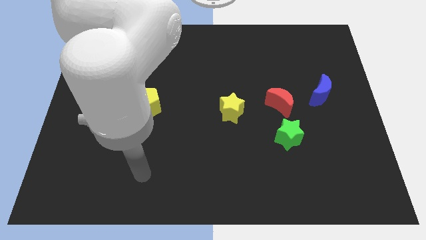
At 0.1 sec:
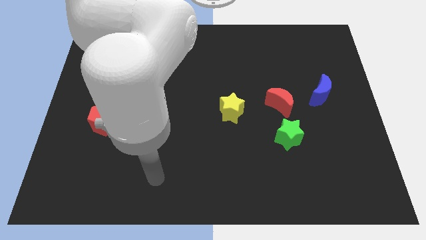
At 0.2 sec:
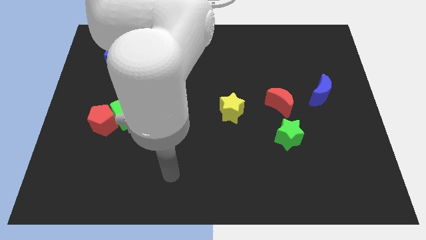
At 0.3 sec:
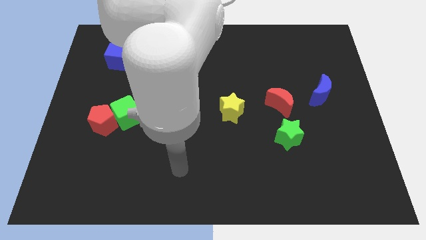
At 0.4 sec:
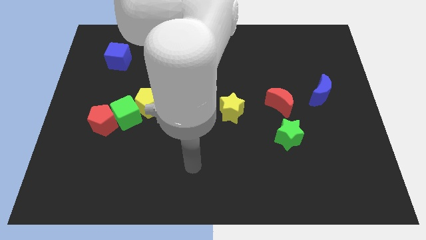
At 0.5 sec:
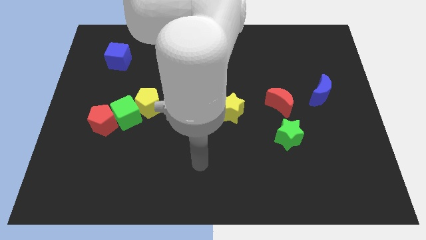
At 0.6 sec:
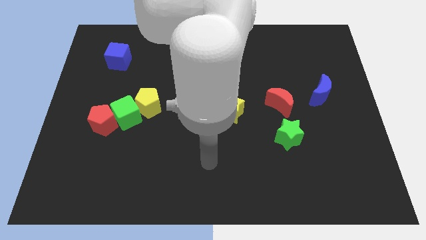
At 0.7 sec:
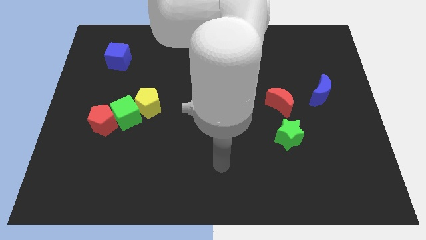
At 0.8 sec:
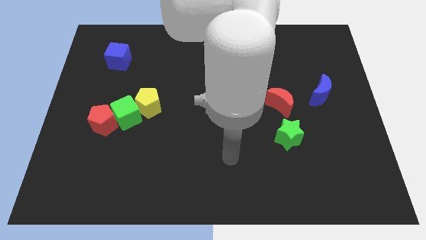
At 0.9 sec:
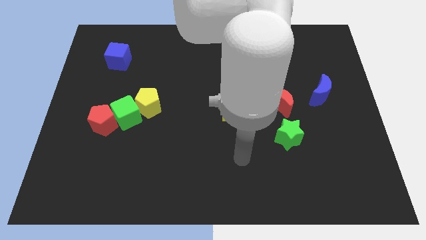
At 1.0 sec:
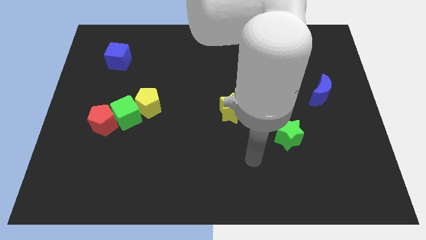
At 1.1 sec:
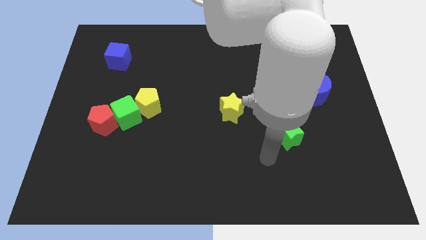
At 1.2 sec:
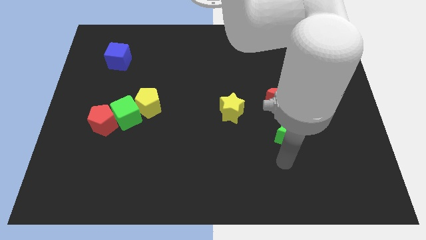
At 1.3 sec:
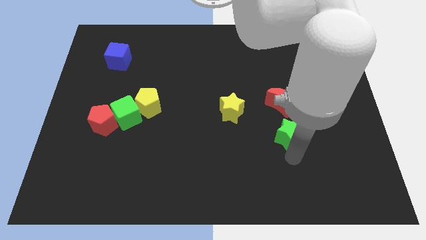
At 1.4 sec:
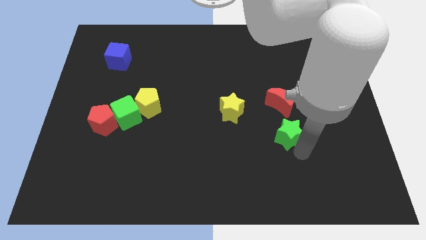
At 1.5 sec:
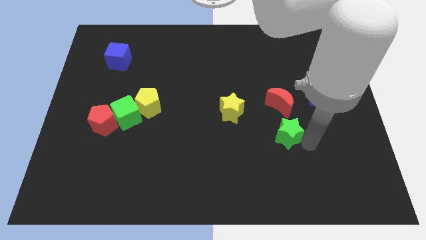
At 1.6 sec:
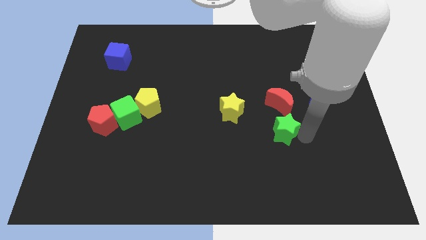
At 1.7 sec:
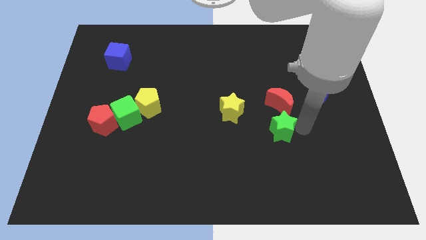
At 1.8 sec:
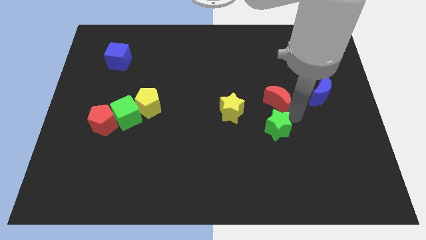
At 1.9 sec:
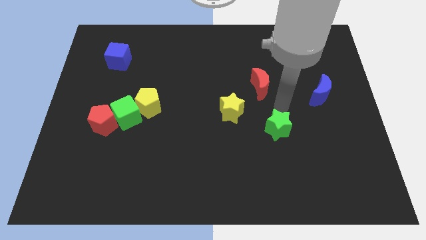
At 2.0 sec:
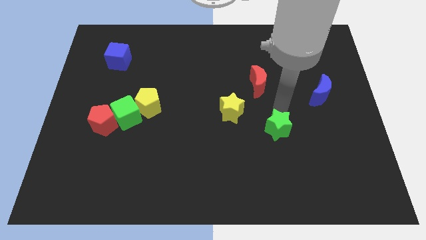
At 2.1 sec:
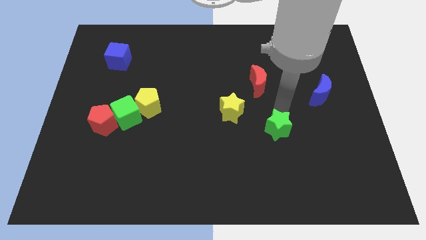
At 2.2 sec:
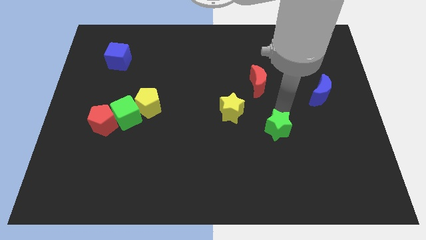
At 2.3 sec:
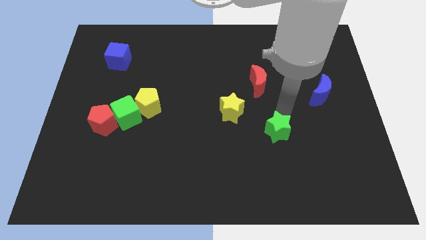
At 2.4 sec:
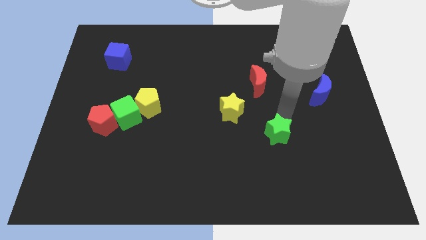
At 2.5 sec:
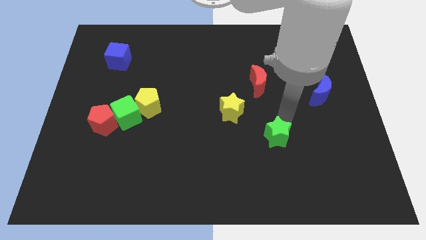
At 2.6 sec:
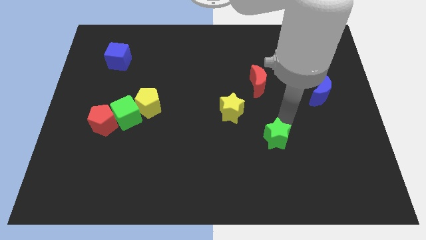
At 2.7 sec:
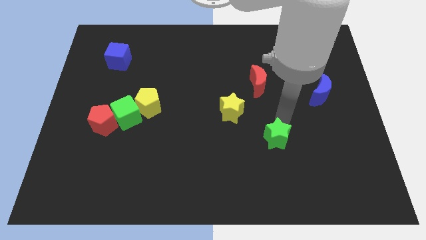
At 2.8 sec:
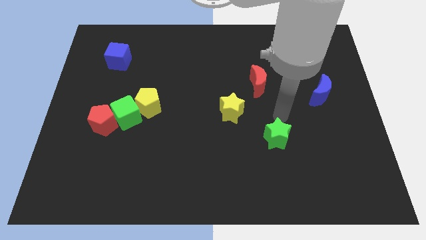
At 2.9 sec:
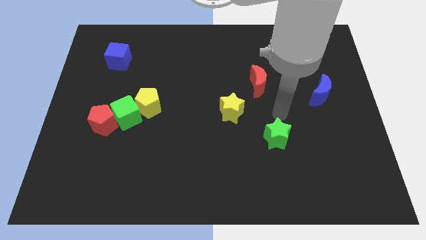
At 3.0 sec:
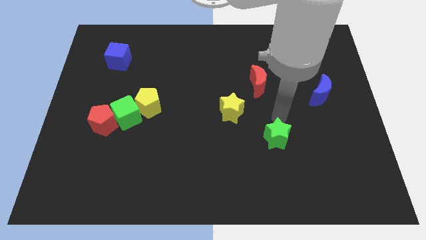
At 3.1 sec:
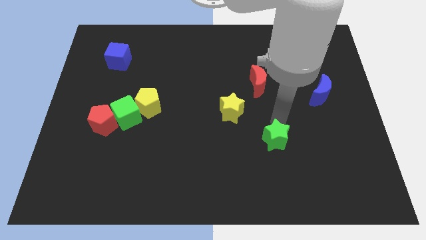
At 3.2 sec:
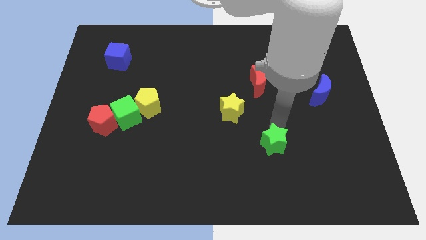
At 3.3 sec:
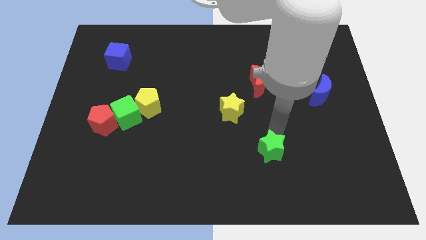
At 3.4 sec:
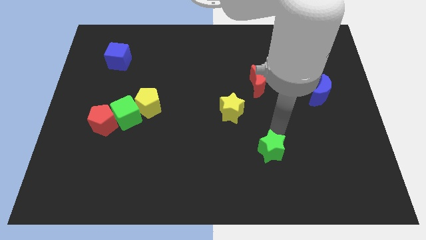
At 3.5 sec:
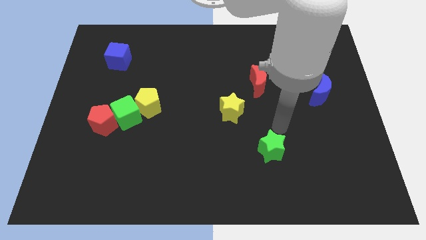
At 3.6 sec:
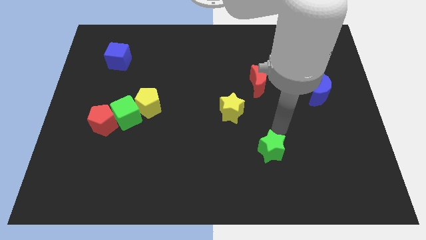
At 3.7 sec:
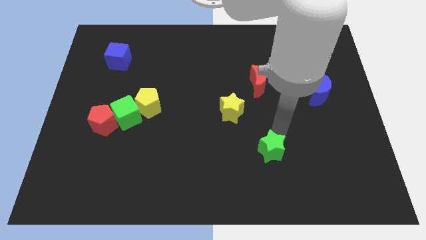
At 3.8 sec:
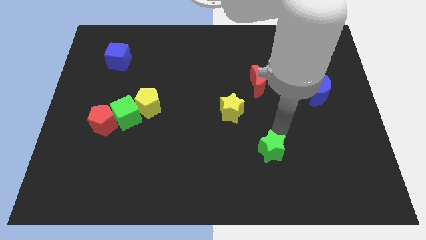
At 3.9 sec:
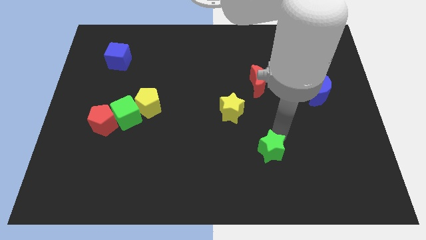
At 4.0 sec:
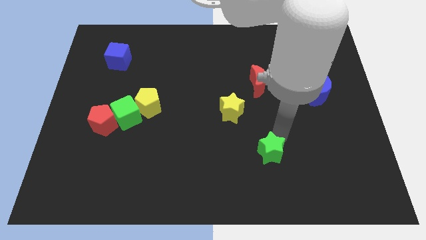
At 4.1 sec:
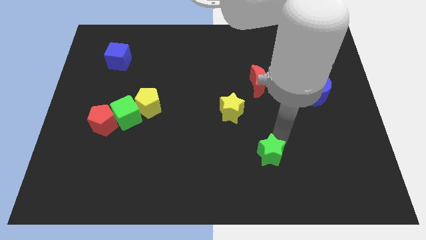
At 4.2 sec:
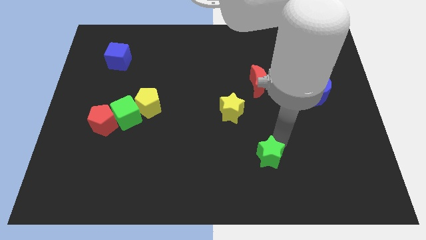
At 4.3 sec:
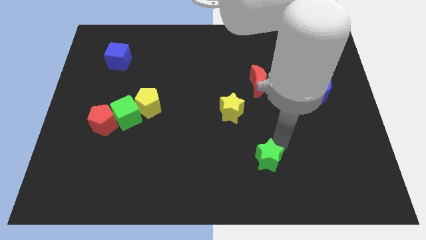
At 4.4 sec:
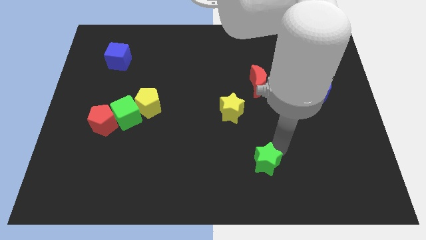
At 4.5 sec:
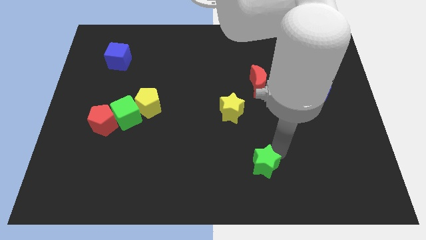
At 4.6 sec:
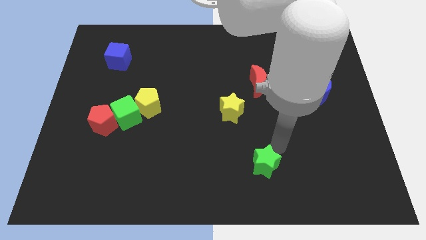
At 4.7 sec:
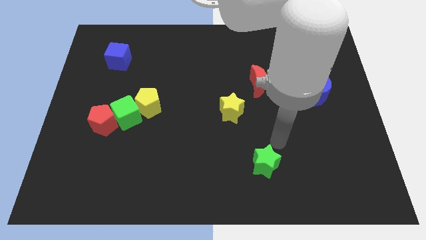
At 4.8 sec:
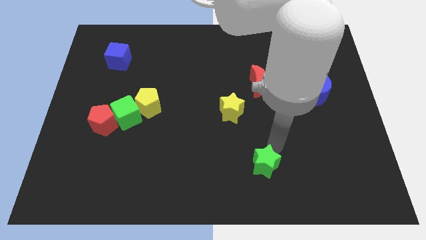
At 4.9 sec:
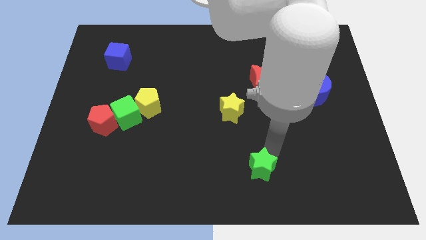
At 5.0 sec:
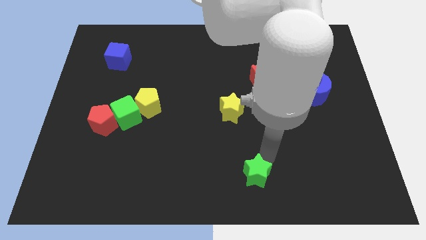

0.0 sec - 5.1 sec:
move the green star to the bottom

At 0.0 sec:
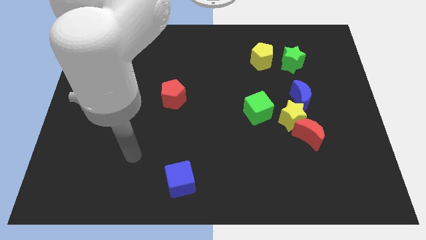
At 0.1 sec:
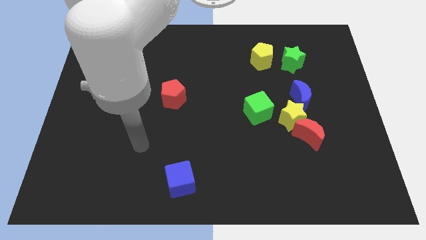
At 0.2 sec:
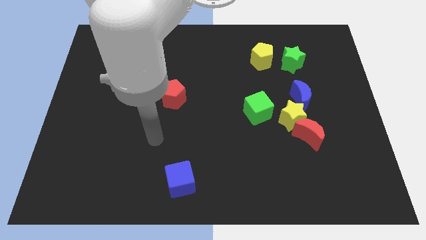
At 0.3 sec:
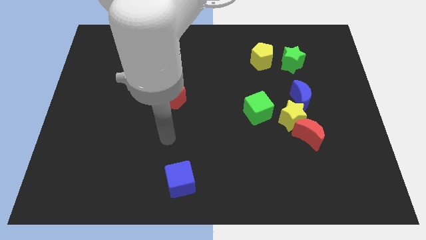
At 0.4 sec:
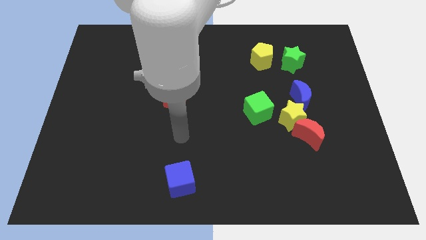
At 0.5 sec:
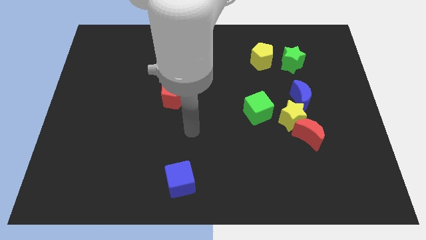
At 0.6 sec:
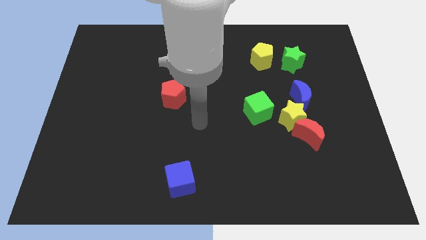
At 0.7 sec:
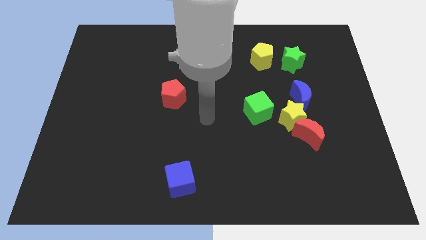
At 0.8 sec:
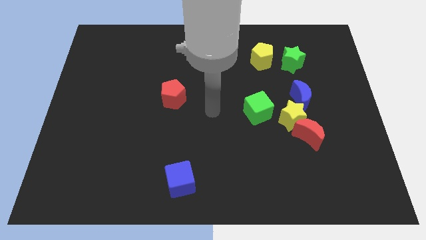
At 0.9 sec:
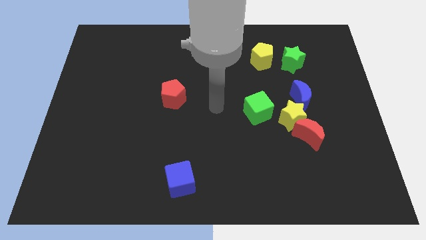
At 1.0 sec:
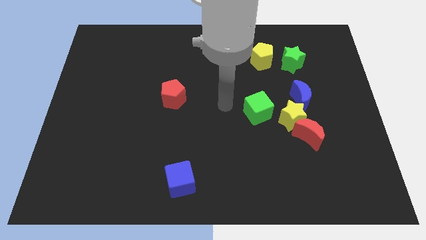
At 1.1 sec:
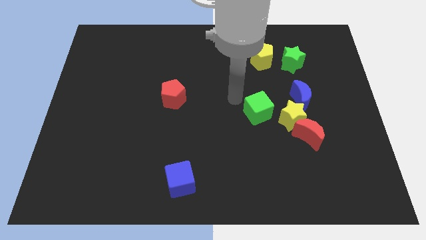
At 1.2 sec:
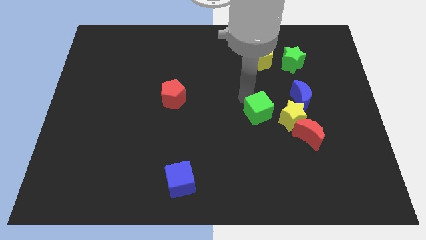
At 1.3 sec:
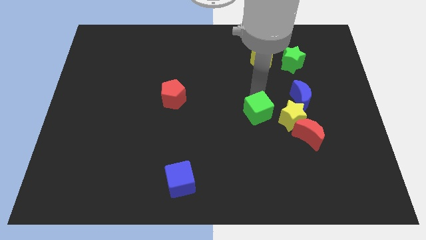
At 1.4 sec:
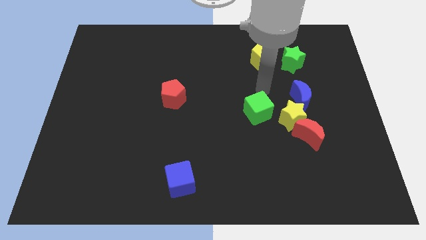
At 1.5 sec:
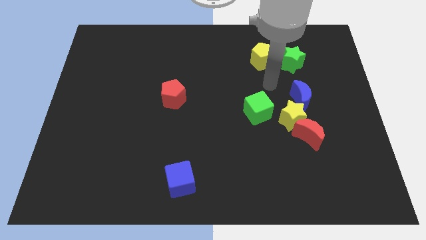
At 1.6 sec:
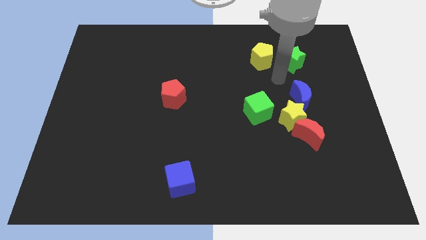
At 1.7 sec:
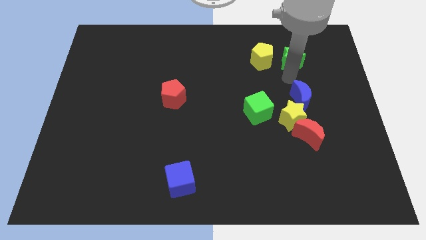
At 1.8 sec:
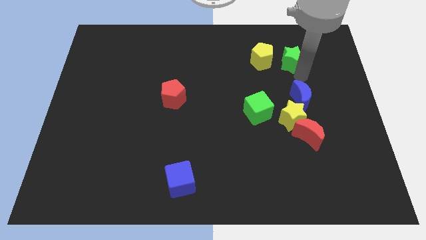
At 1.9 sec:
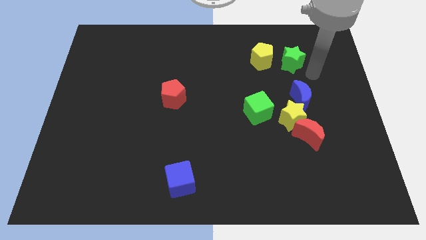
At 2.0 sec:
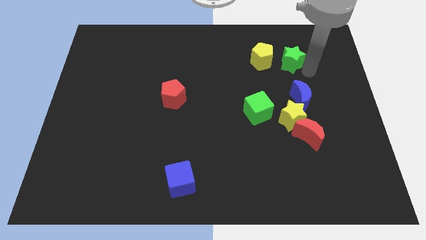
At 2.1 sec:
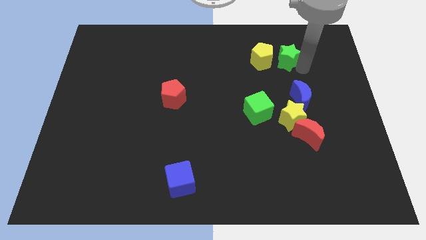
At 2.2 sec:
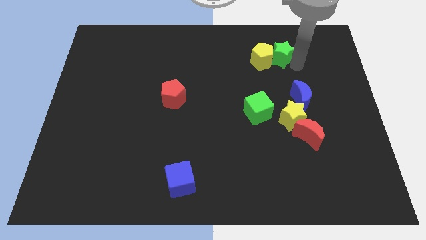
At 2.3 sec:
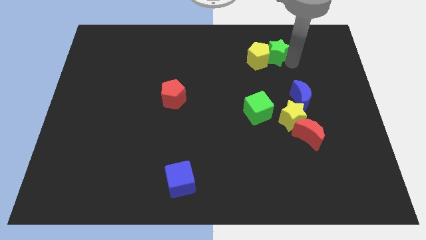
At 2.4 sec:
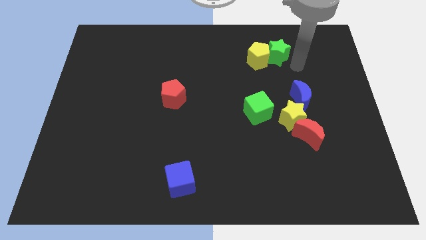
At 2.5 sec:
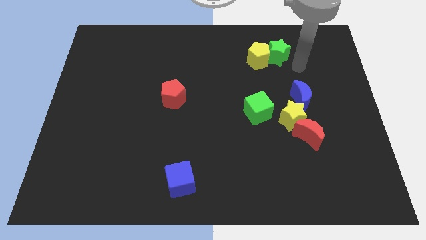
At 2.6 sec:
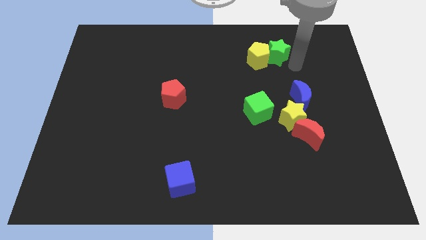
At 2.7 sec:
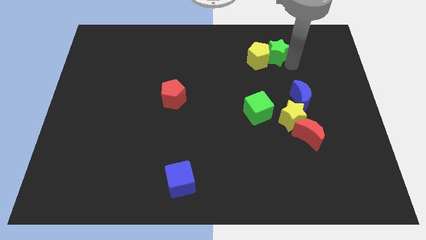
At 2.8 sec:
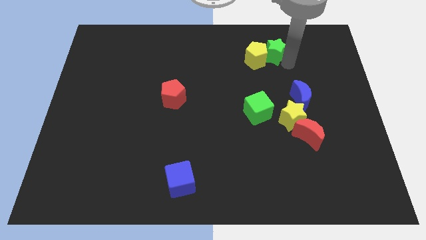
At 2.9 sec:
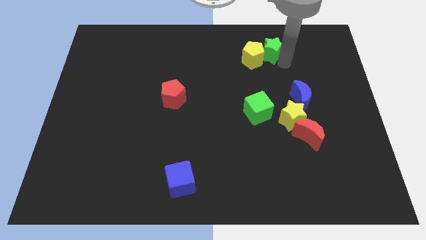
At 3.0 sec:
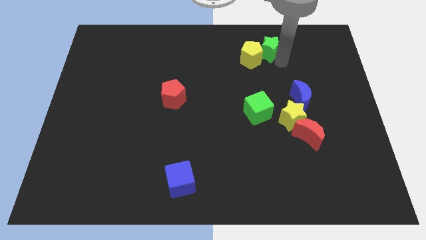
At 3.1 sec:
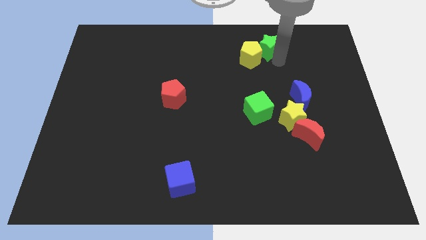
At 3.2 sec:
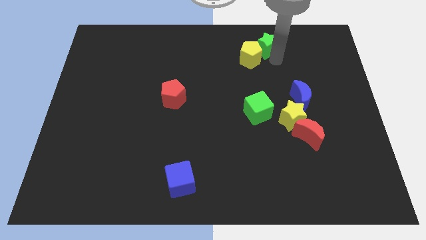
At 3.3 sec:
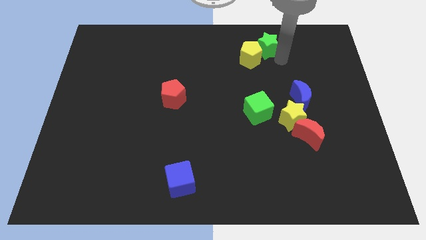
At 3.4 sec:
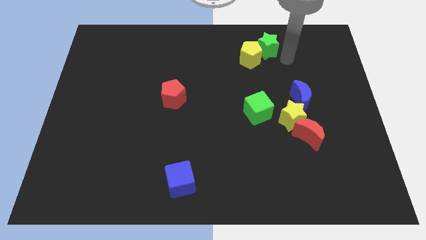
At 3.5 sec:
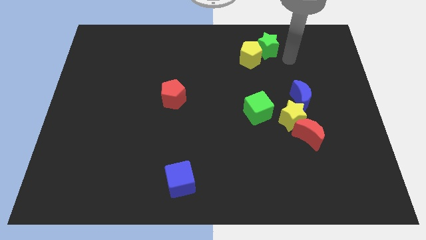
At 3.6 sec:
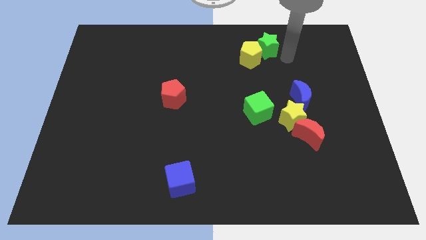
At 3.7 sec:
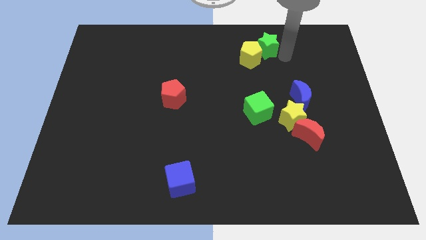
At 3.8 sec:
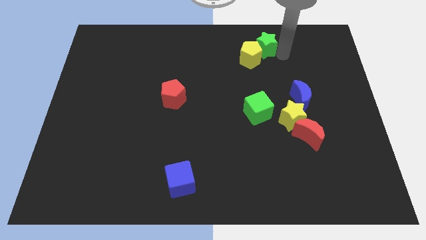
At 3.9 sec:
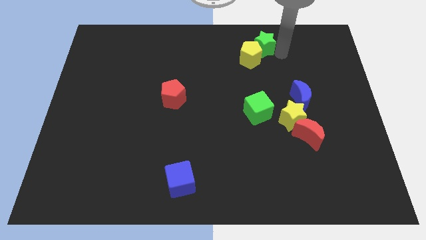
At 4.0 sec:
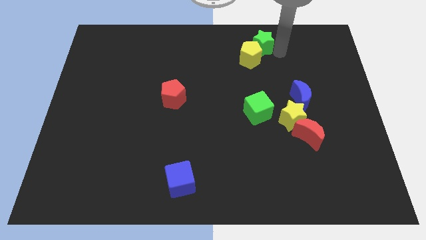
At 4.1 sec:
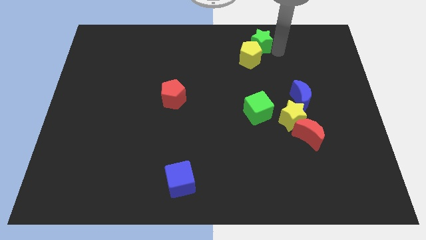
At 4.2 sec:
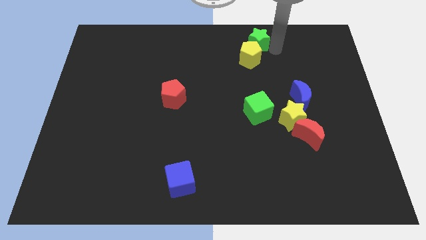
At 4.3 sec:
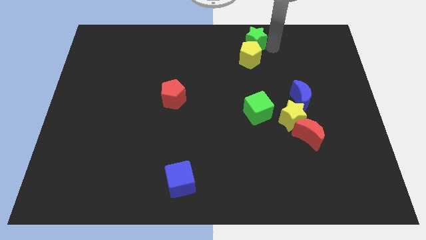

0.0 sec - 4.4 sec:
move the green star to the towards your base
